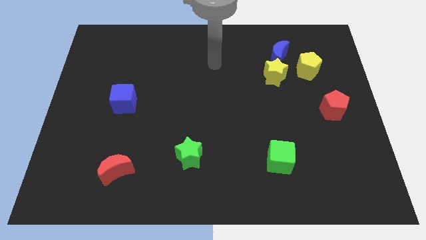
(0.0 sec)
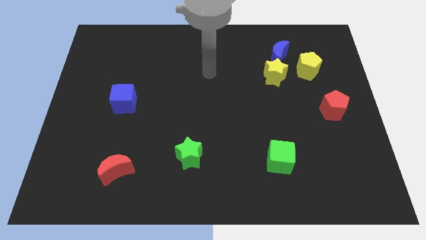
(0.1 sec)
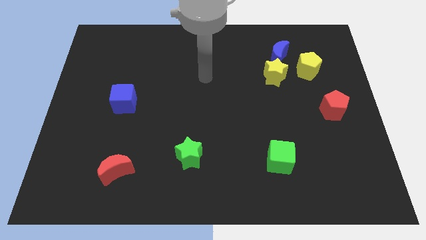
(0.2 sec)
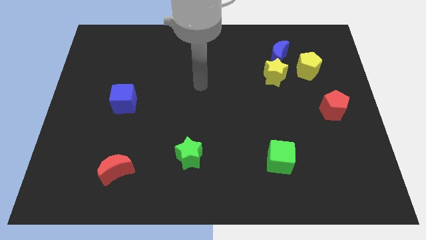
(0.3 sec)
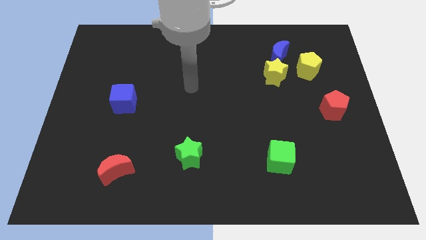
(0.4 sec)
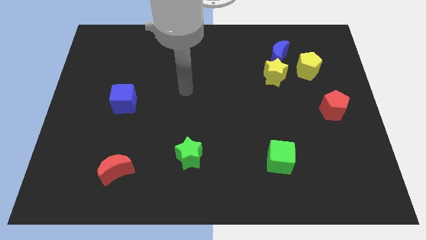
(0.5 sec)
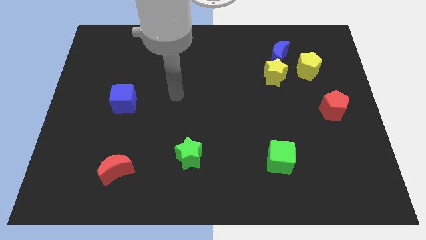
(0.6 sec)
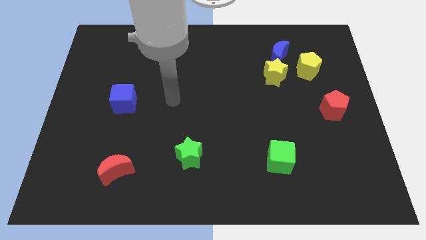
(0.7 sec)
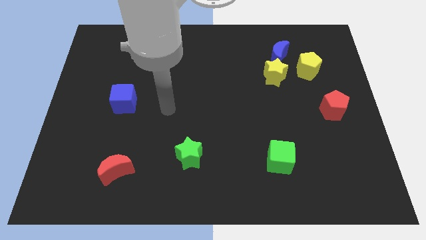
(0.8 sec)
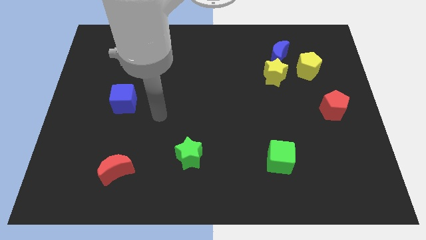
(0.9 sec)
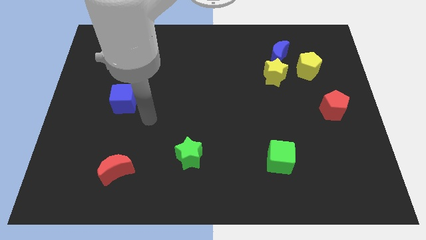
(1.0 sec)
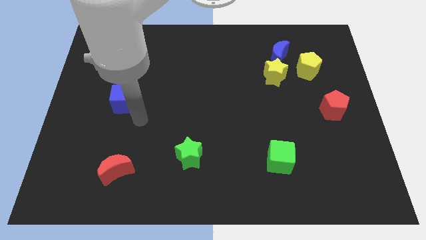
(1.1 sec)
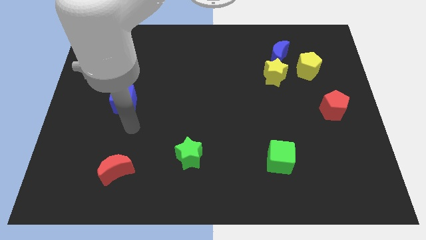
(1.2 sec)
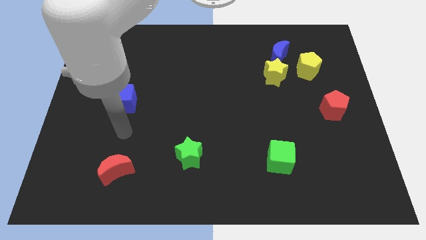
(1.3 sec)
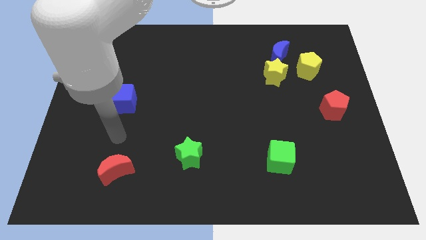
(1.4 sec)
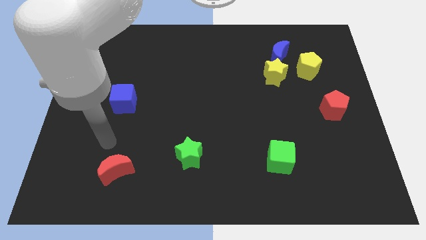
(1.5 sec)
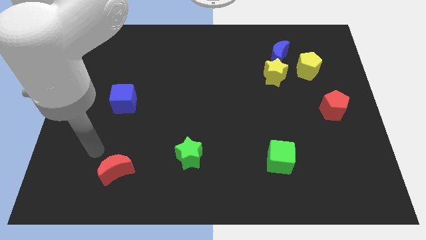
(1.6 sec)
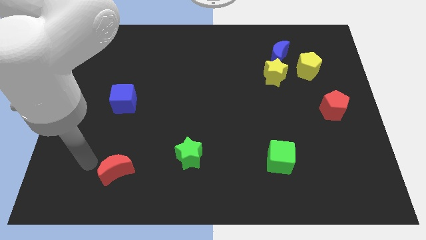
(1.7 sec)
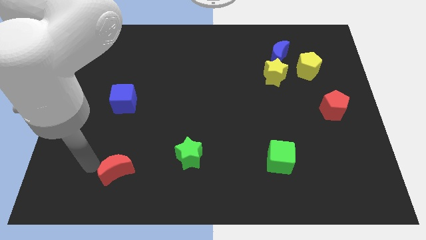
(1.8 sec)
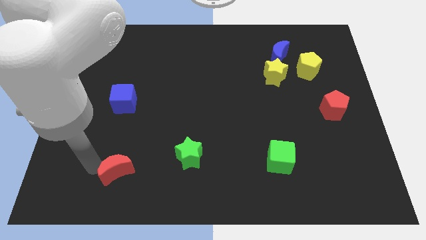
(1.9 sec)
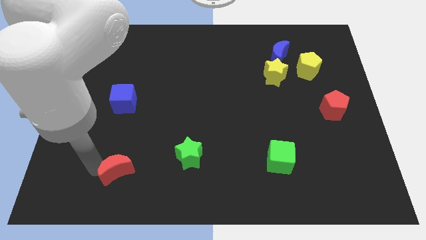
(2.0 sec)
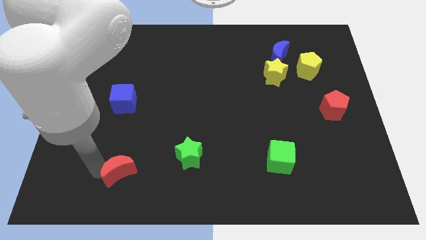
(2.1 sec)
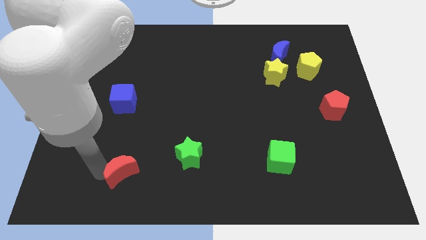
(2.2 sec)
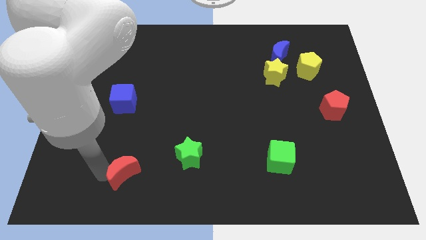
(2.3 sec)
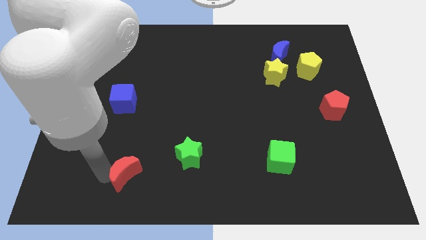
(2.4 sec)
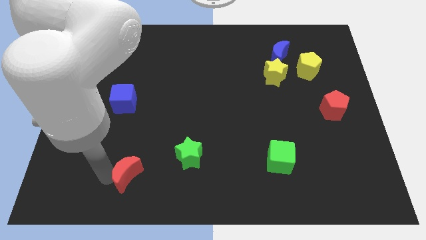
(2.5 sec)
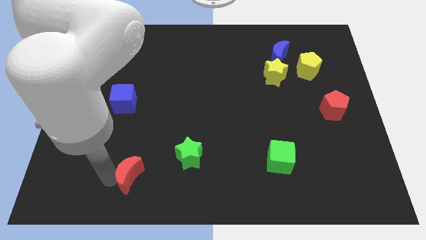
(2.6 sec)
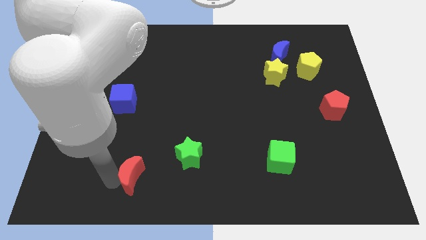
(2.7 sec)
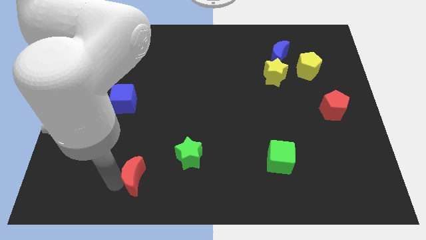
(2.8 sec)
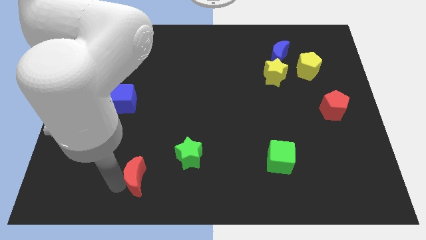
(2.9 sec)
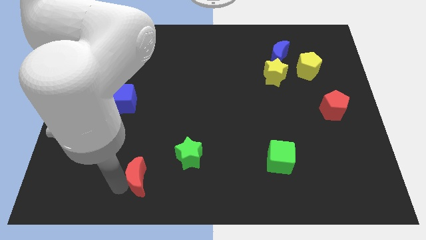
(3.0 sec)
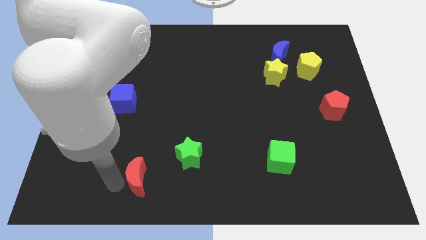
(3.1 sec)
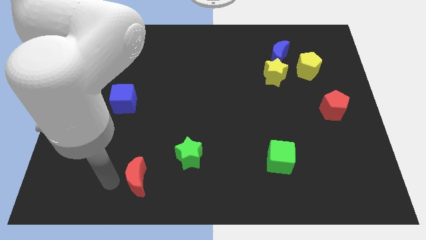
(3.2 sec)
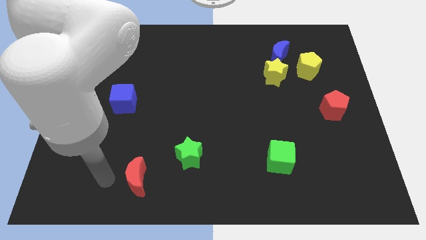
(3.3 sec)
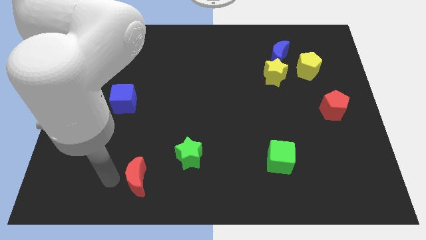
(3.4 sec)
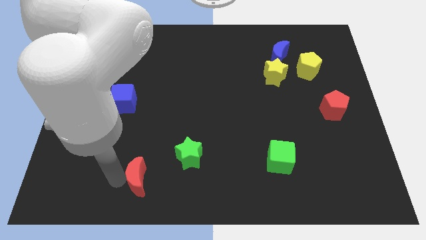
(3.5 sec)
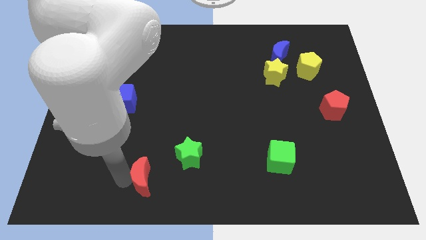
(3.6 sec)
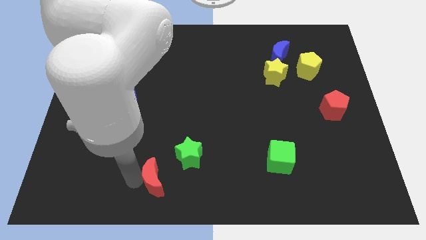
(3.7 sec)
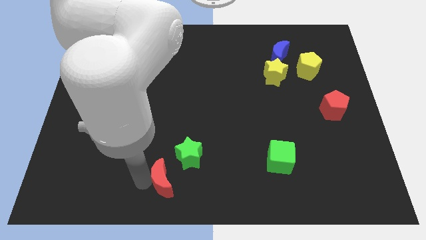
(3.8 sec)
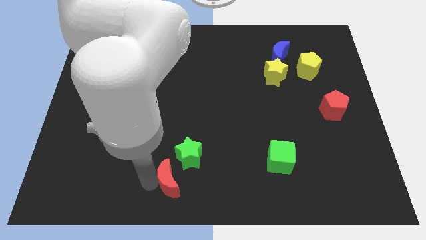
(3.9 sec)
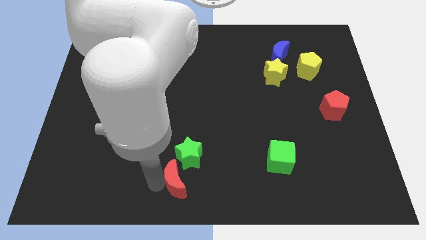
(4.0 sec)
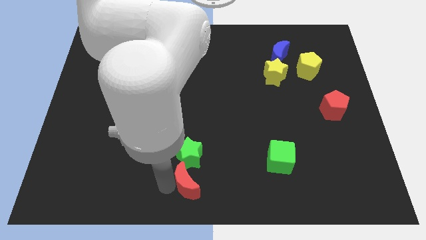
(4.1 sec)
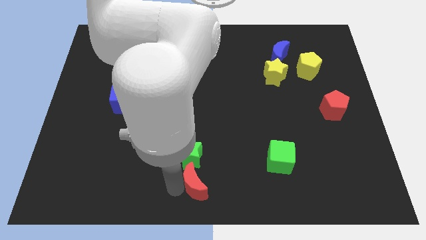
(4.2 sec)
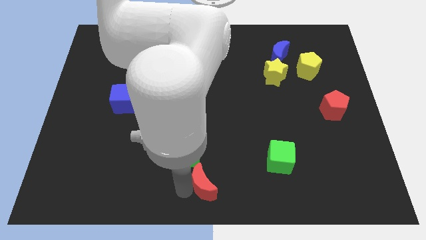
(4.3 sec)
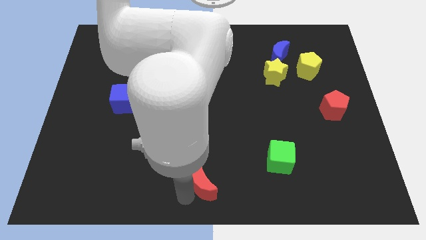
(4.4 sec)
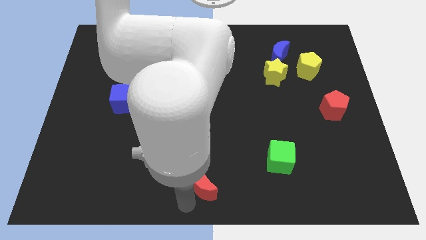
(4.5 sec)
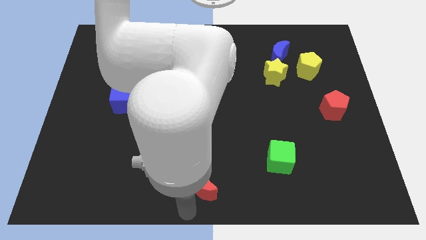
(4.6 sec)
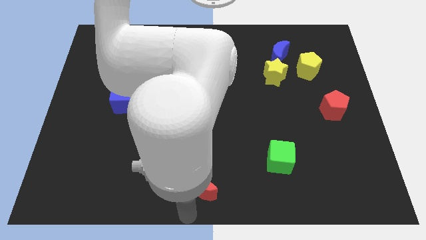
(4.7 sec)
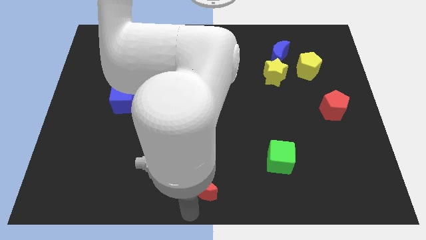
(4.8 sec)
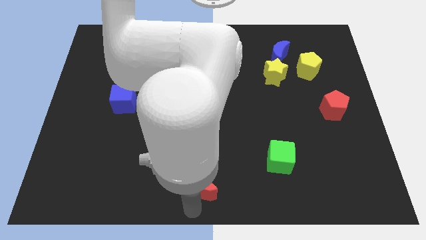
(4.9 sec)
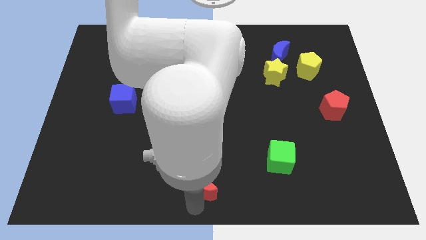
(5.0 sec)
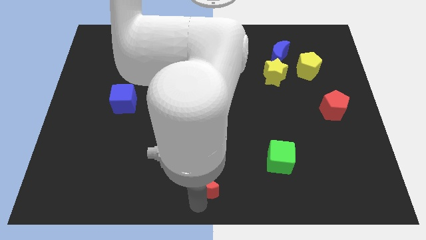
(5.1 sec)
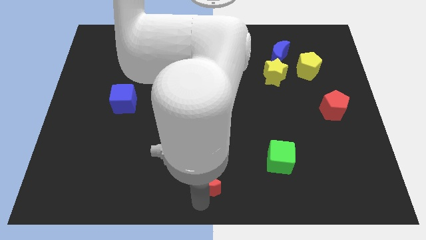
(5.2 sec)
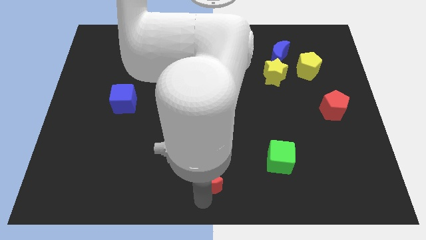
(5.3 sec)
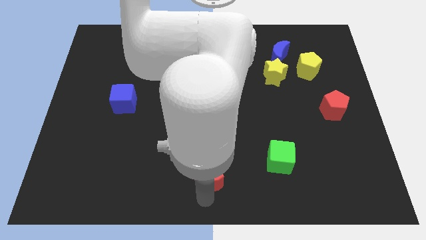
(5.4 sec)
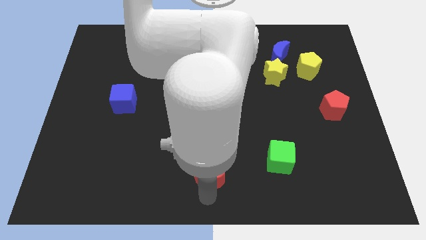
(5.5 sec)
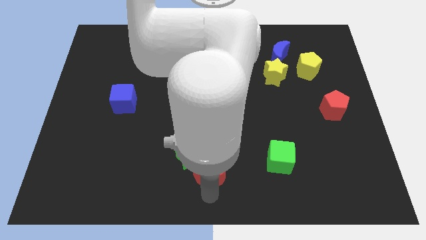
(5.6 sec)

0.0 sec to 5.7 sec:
push the red moon just right of the green star

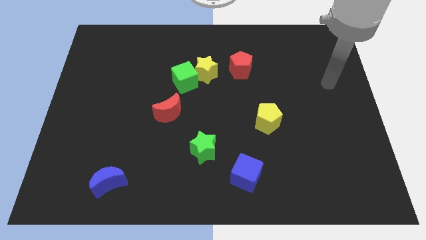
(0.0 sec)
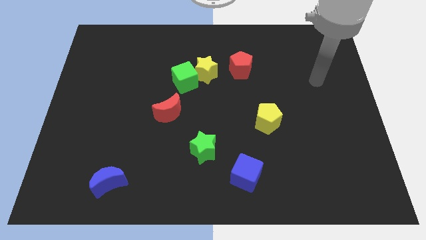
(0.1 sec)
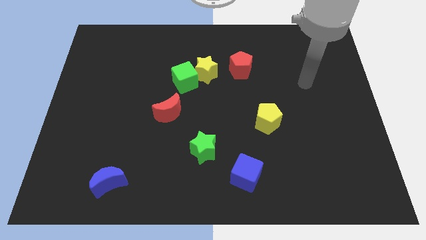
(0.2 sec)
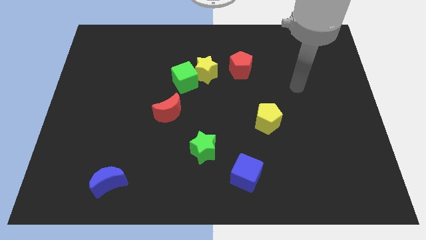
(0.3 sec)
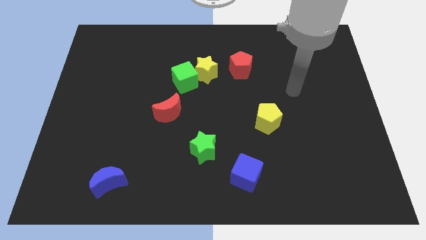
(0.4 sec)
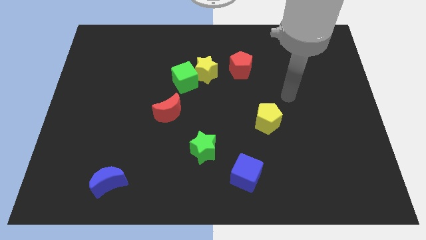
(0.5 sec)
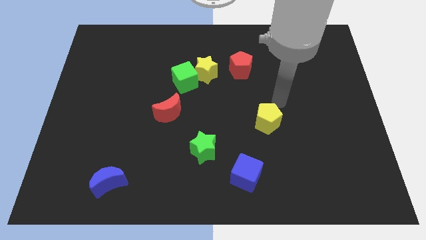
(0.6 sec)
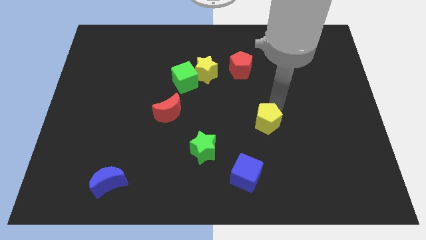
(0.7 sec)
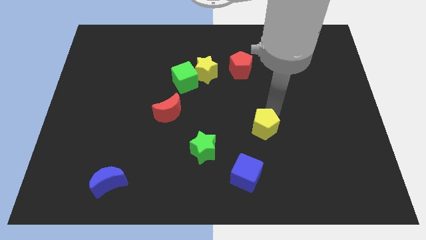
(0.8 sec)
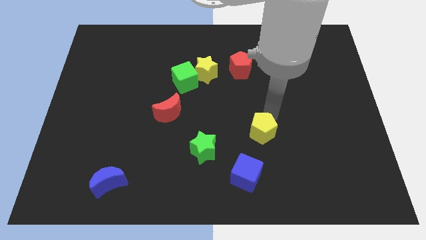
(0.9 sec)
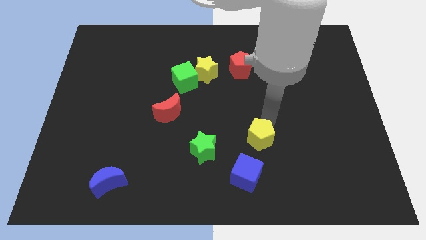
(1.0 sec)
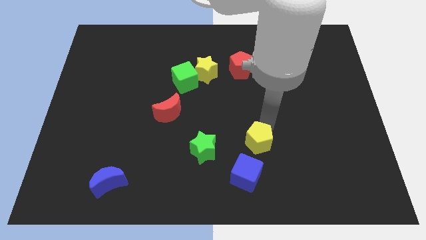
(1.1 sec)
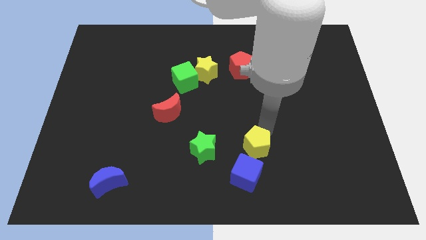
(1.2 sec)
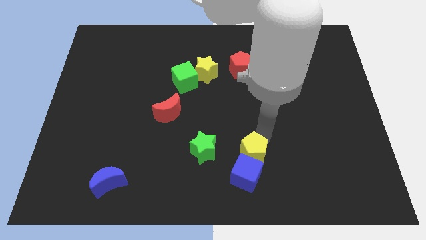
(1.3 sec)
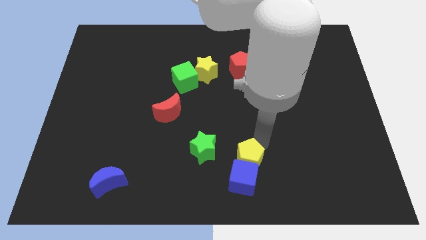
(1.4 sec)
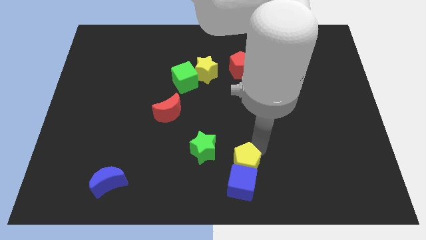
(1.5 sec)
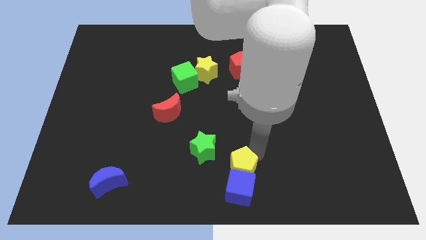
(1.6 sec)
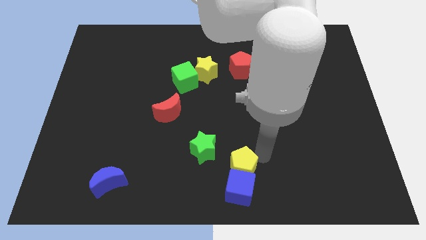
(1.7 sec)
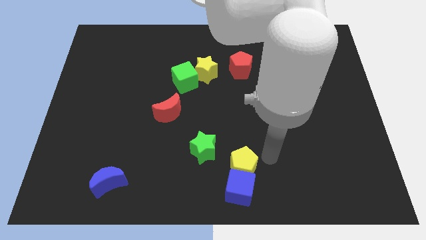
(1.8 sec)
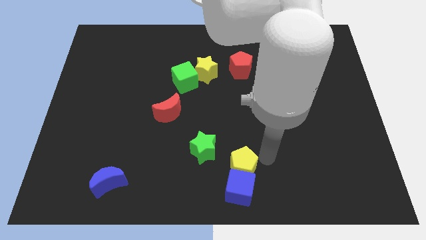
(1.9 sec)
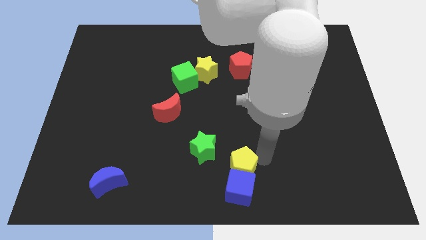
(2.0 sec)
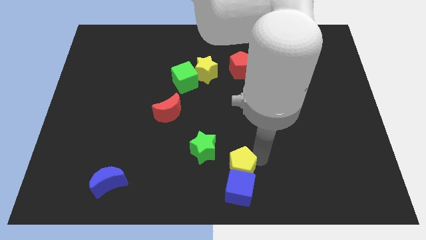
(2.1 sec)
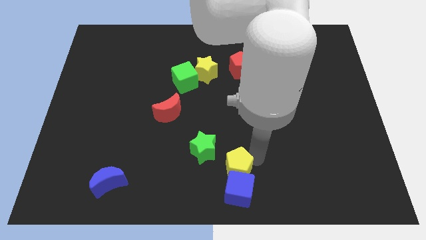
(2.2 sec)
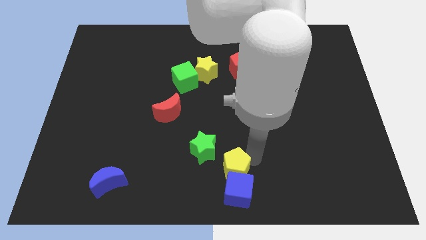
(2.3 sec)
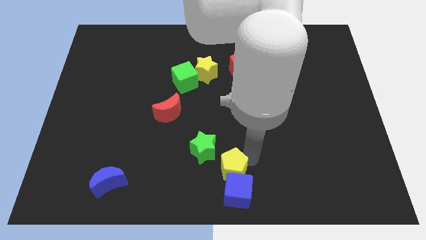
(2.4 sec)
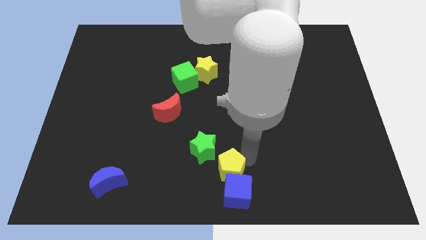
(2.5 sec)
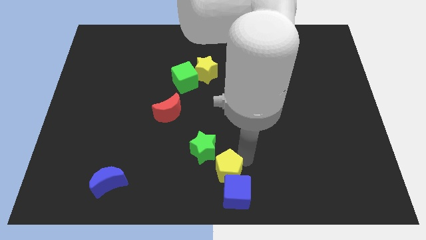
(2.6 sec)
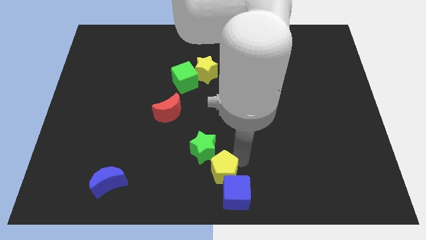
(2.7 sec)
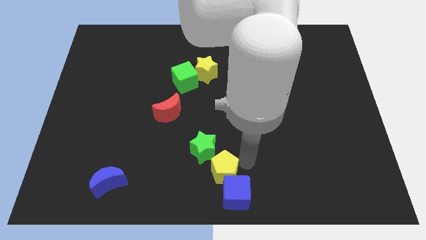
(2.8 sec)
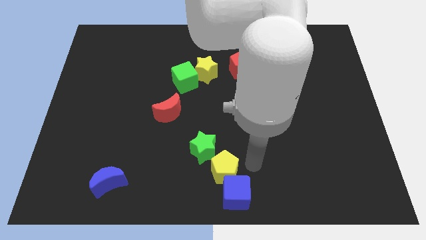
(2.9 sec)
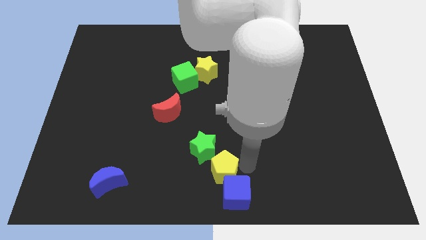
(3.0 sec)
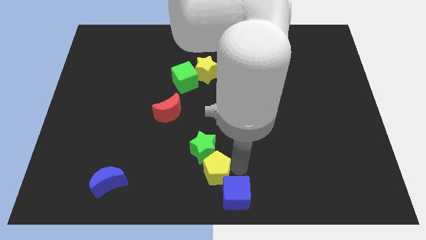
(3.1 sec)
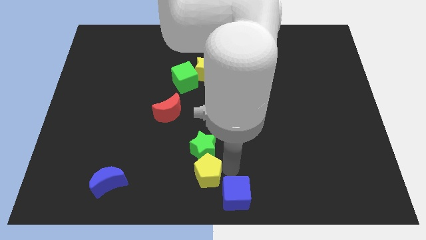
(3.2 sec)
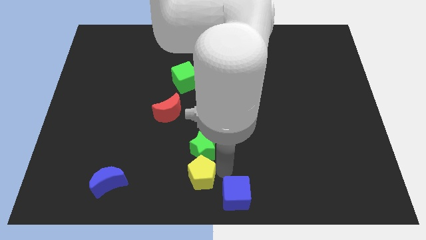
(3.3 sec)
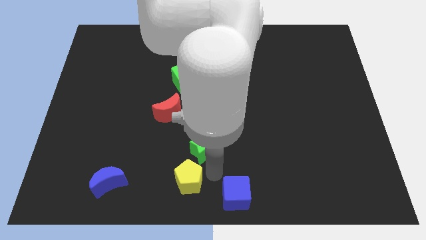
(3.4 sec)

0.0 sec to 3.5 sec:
move the yellow pentagon to the right of the blue moon
